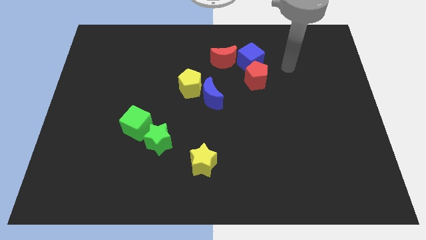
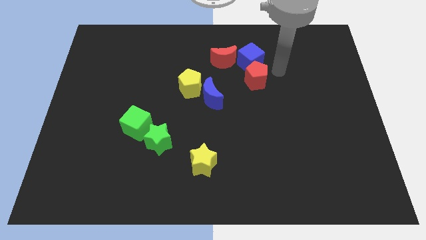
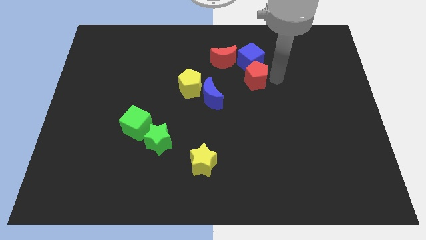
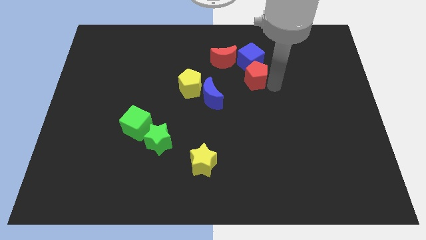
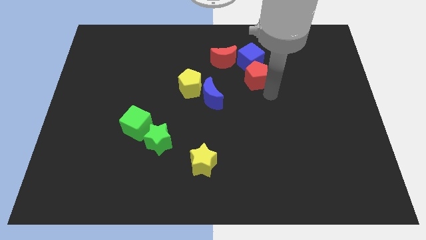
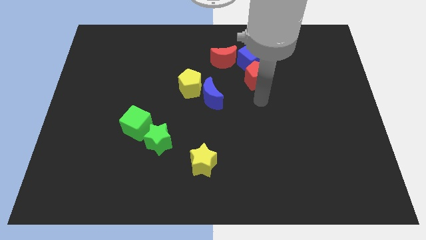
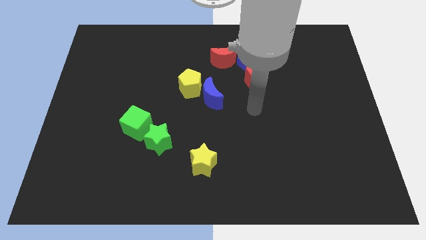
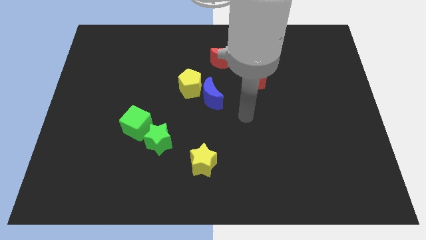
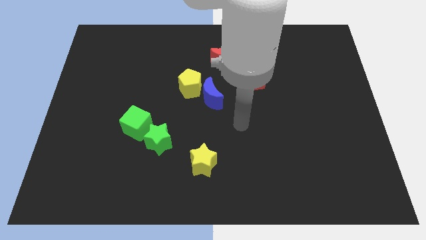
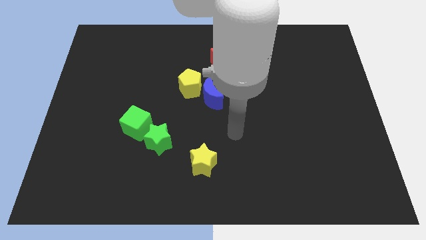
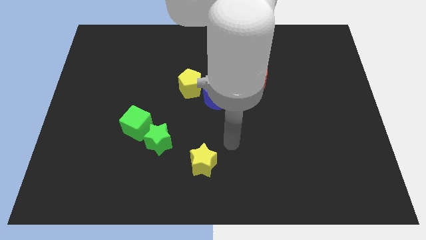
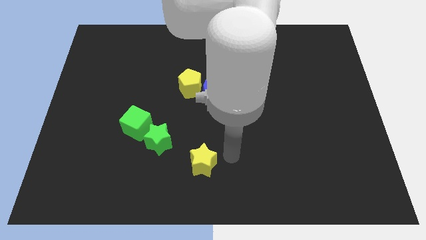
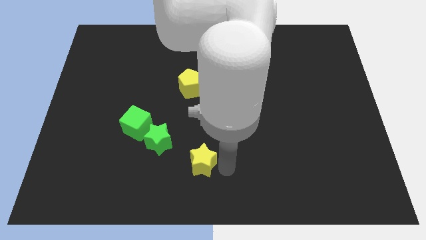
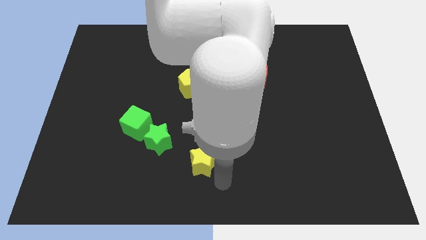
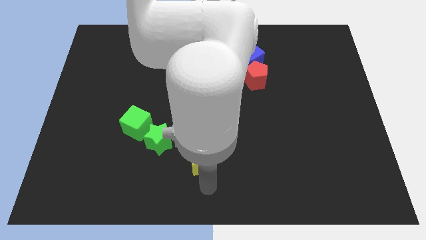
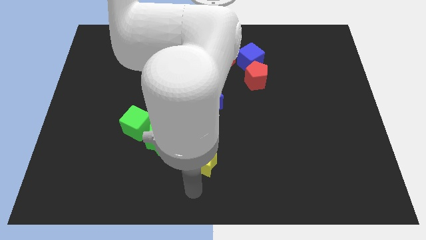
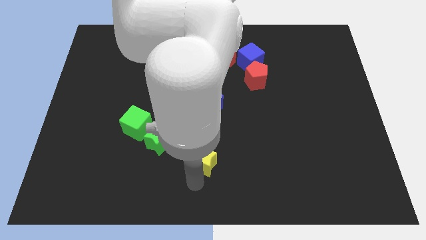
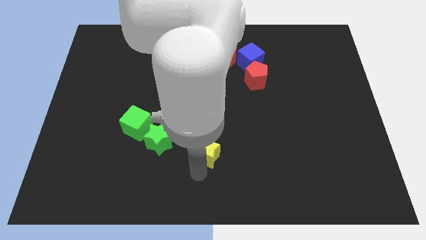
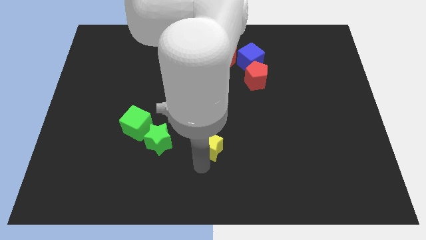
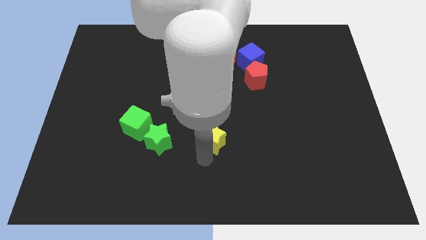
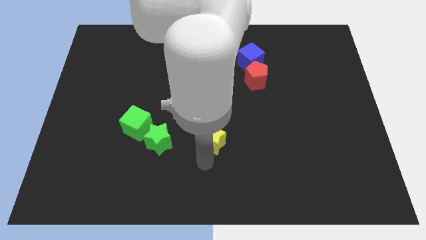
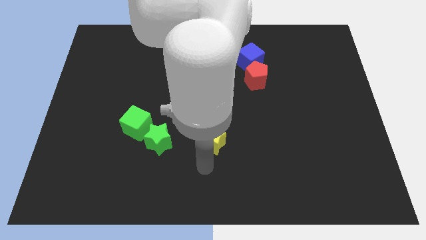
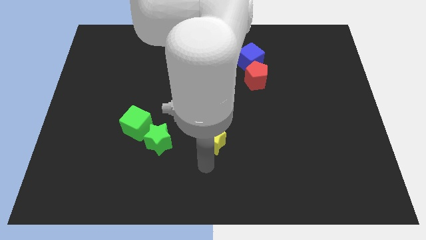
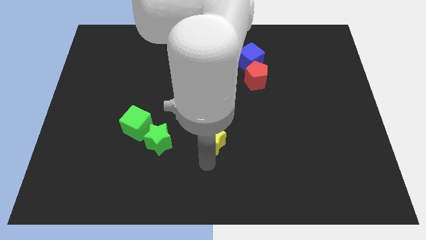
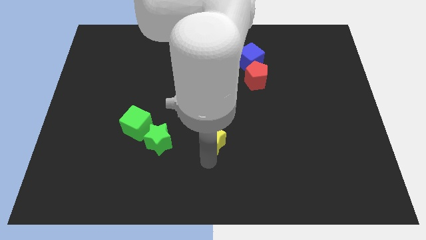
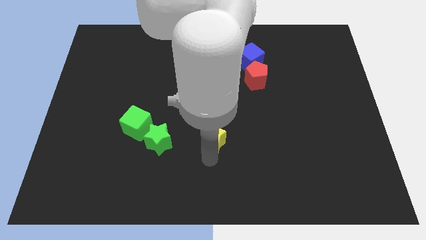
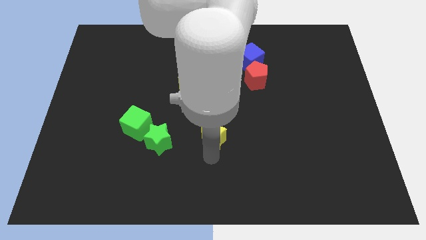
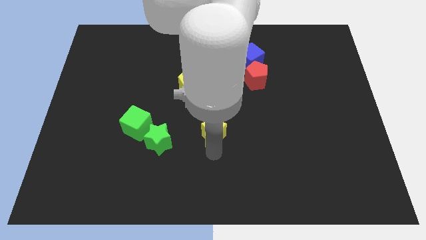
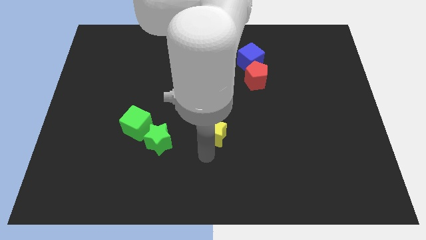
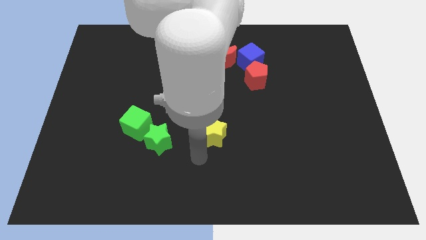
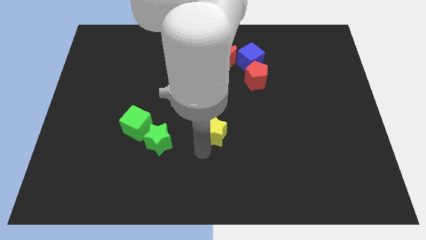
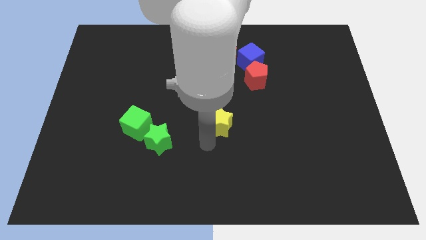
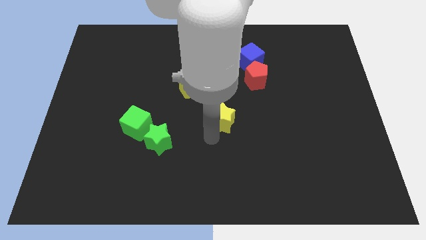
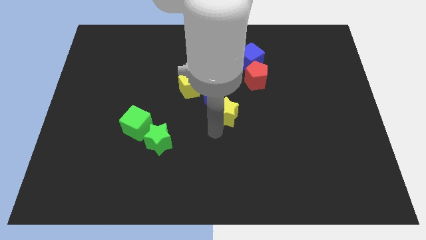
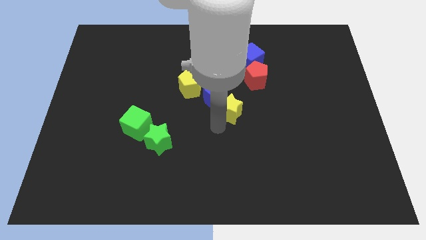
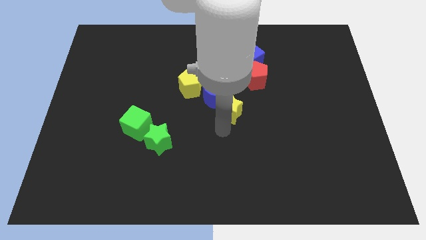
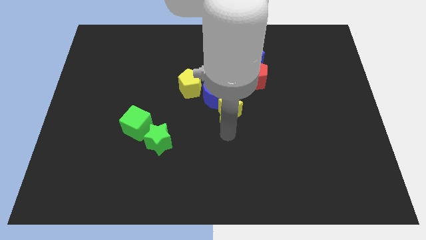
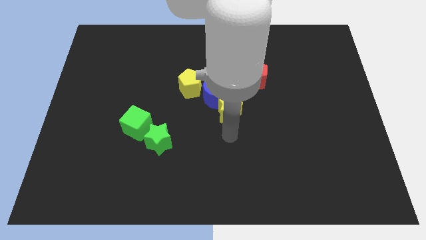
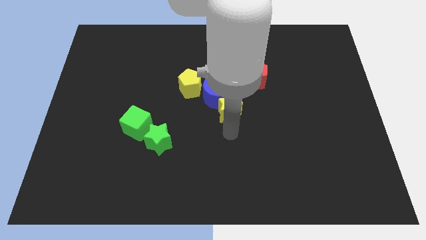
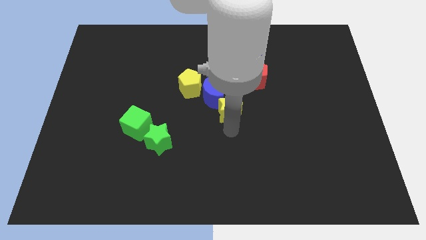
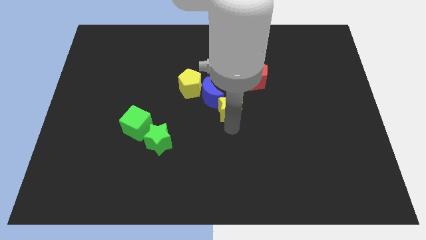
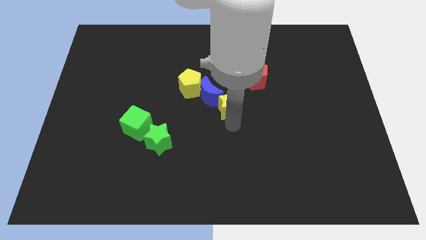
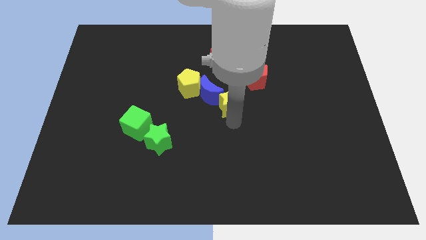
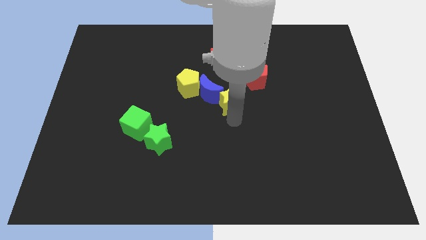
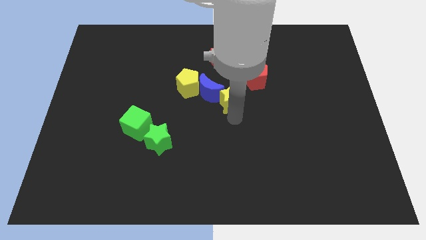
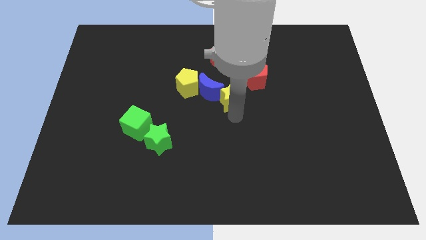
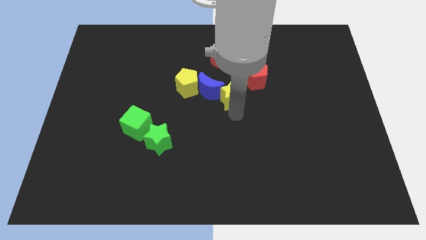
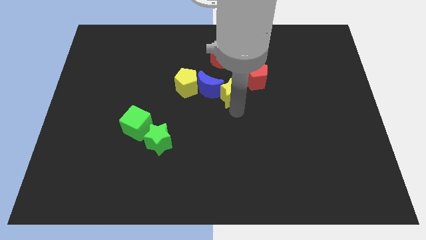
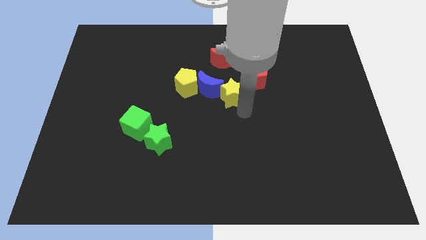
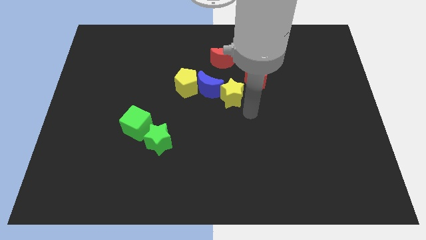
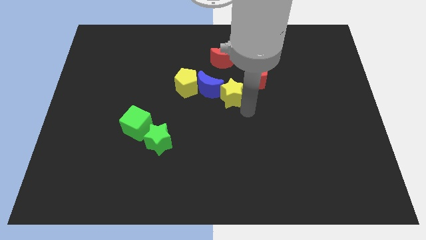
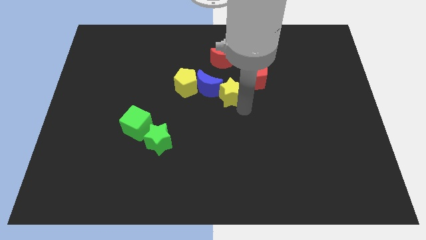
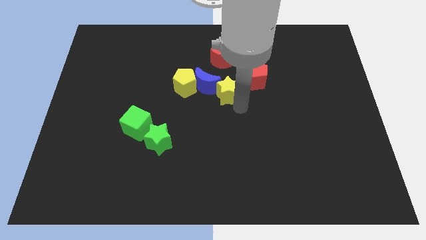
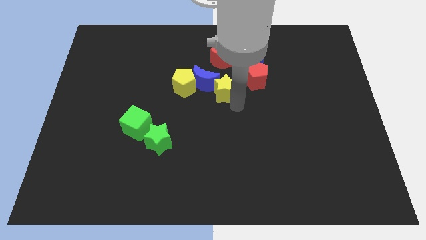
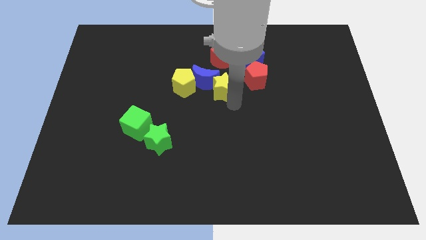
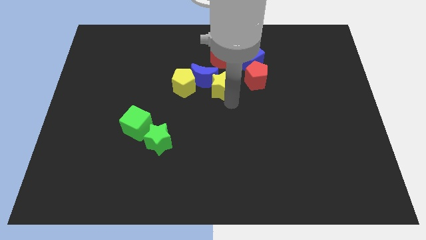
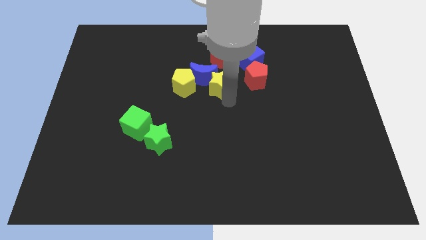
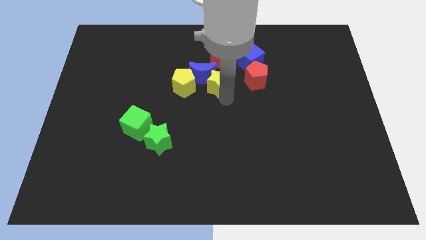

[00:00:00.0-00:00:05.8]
move the yellow star diagonally down and to the left of the red moon

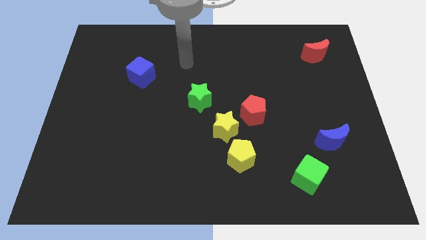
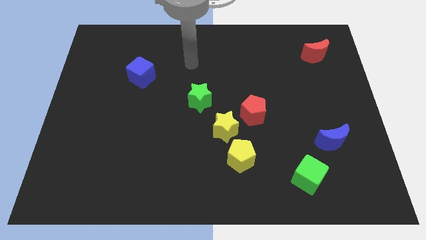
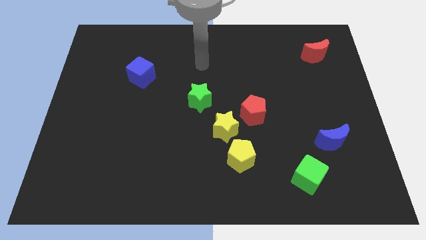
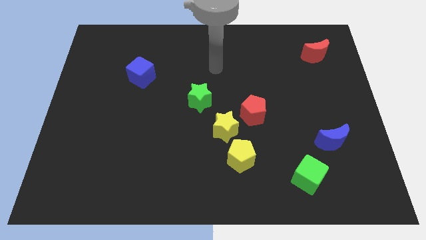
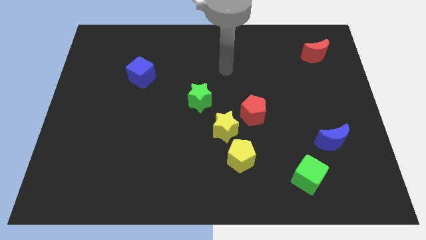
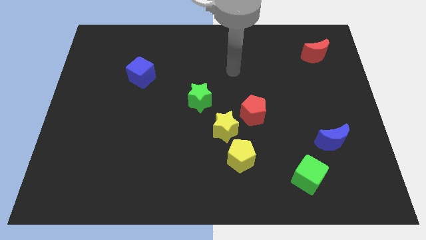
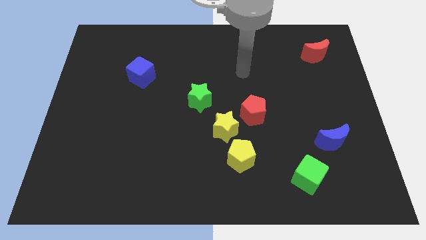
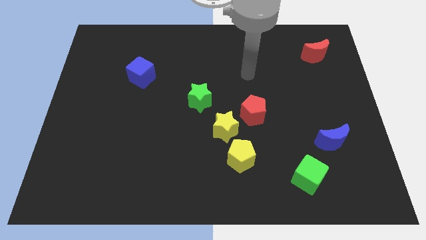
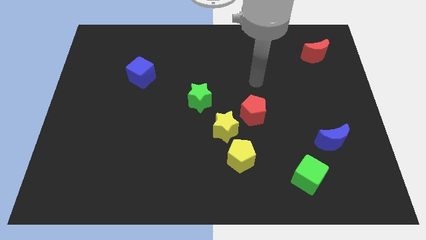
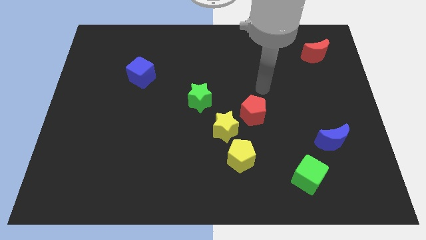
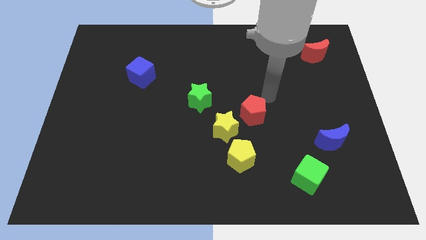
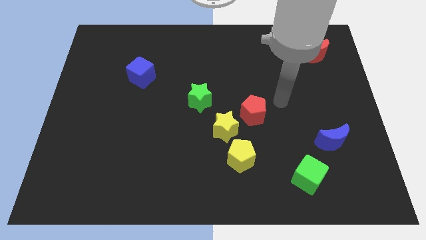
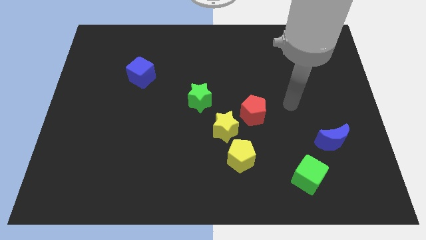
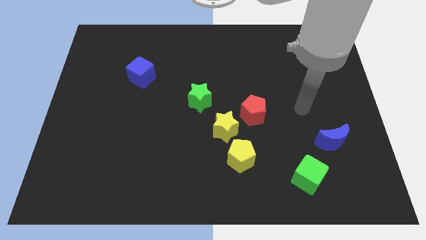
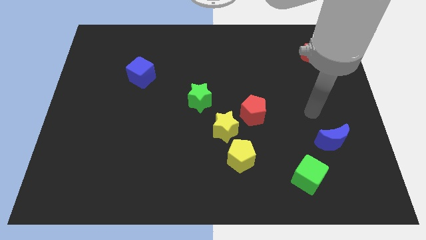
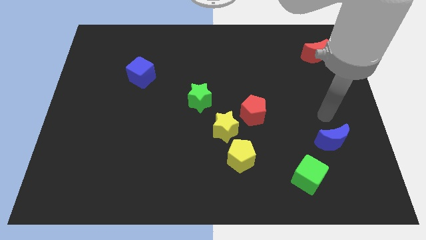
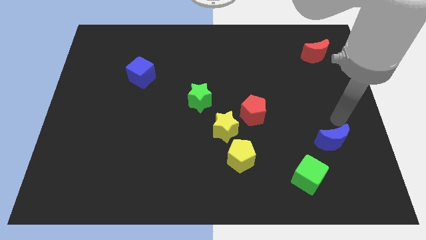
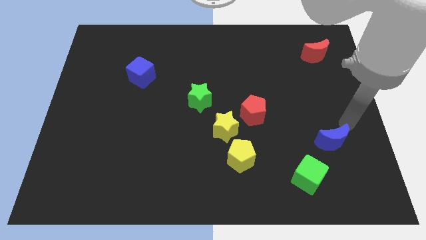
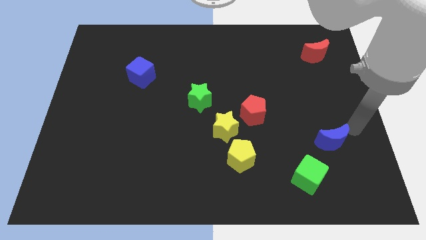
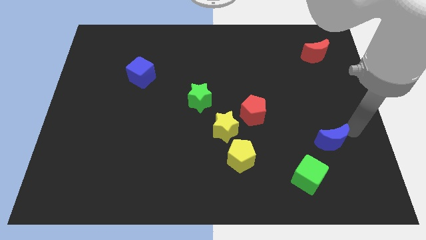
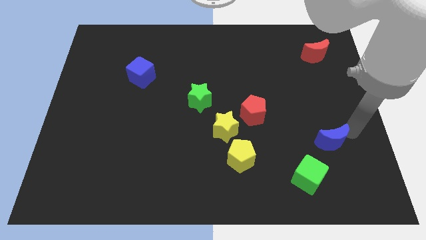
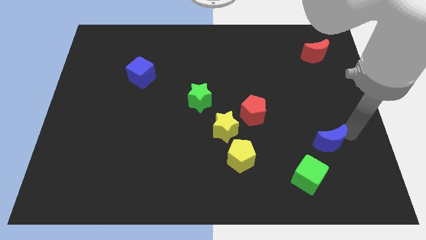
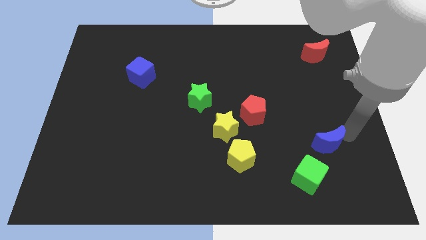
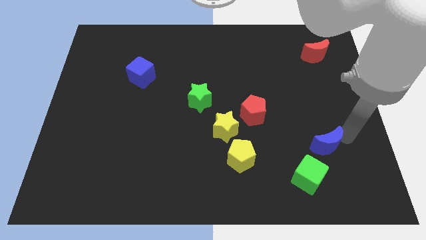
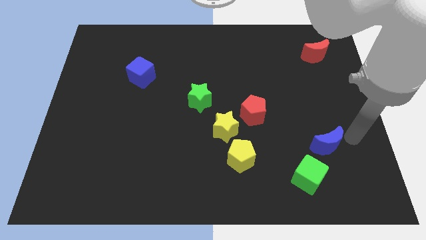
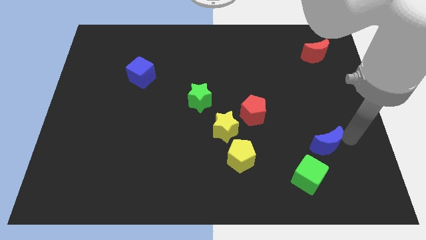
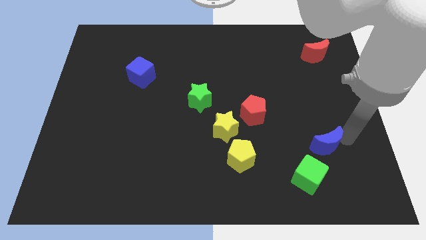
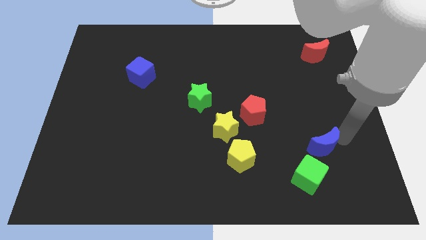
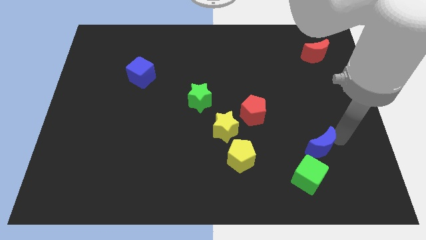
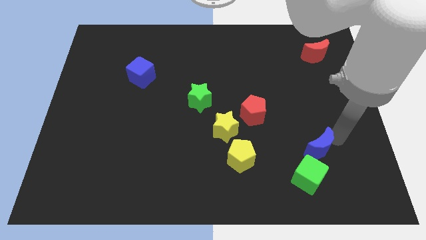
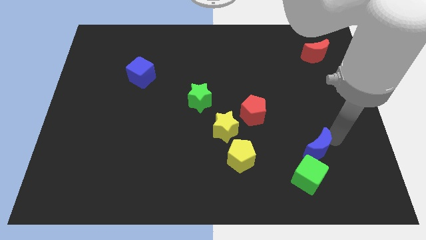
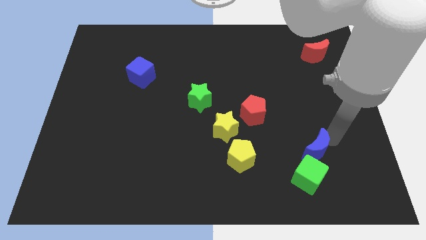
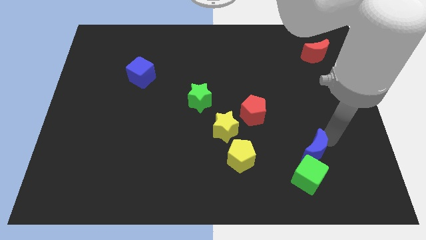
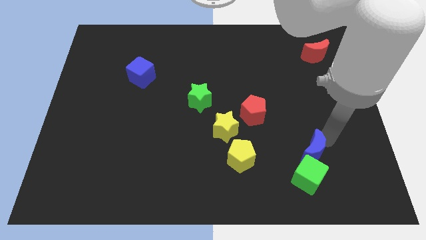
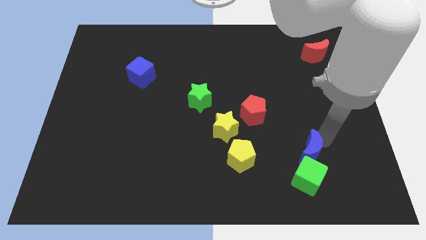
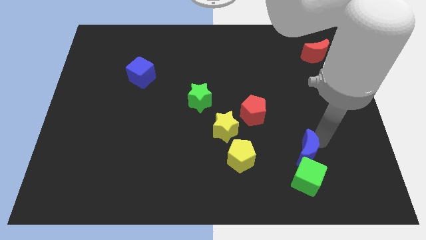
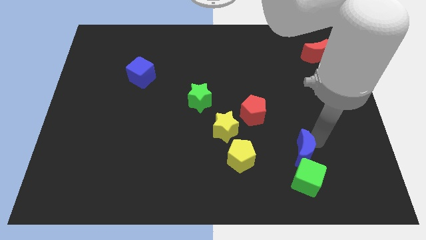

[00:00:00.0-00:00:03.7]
move the blue moon diagonally up and to the left of the green cube
